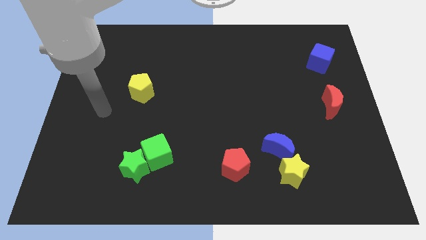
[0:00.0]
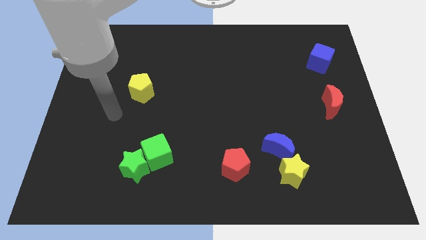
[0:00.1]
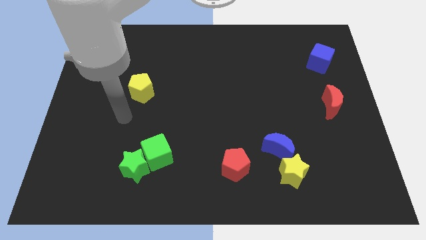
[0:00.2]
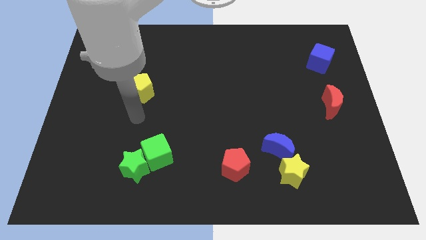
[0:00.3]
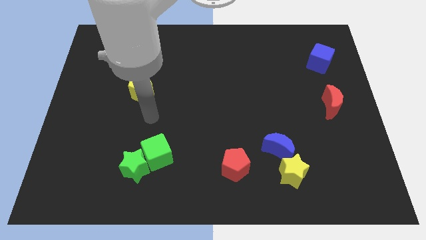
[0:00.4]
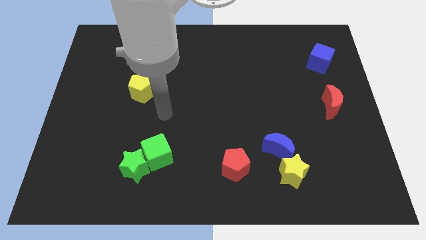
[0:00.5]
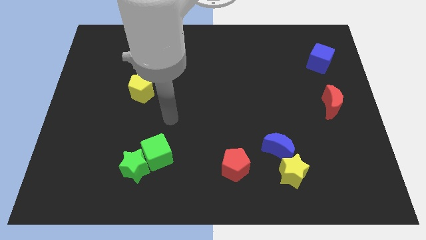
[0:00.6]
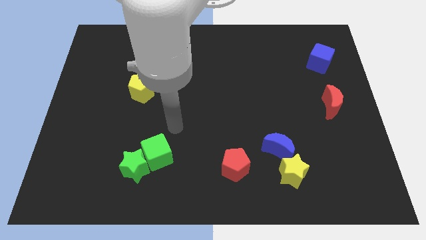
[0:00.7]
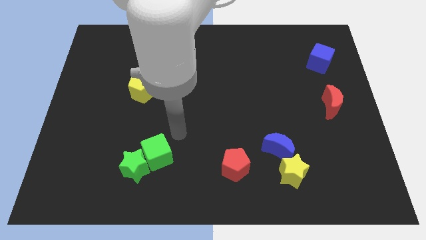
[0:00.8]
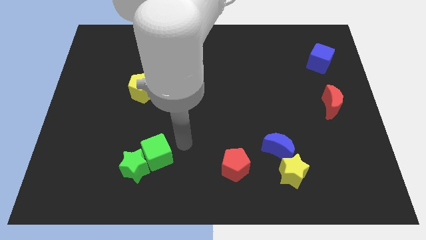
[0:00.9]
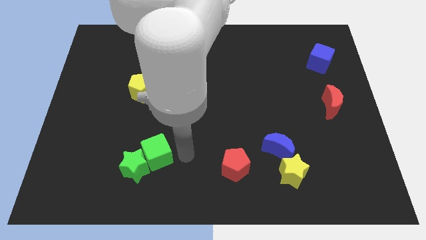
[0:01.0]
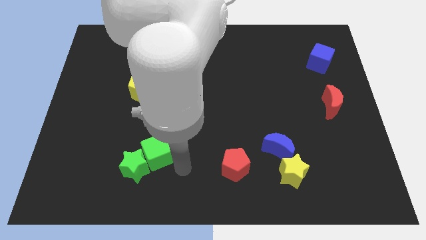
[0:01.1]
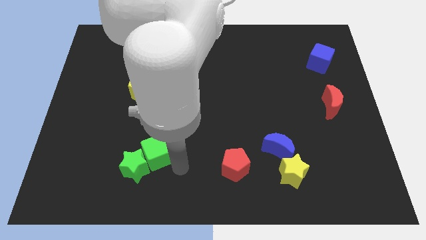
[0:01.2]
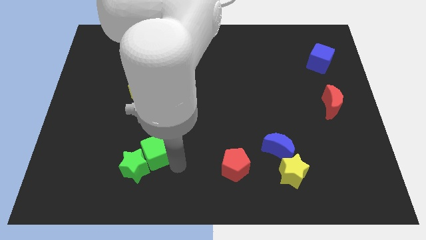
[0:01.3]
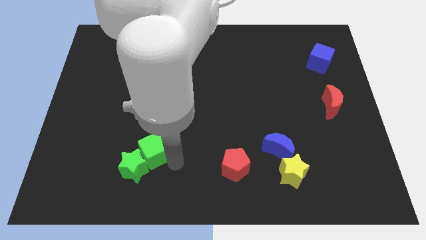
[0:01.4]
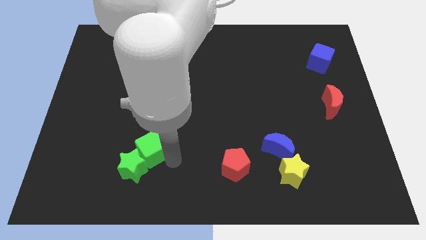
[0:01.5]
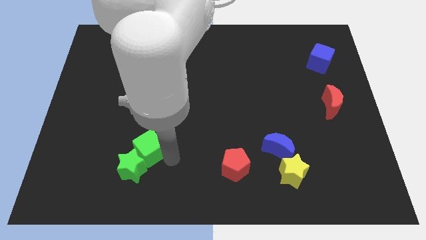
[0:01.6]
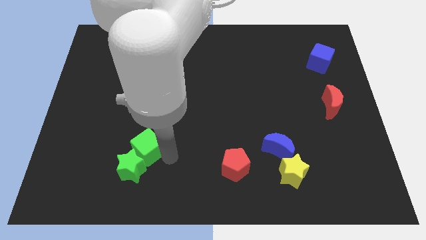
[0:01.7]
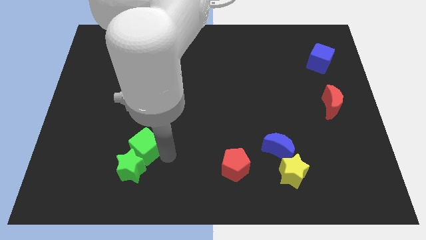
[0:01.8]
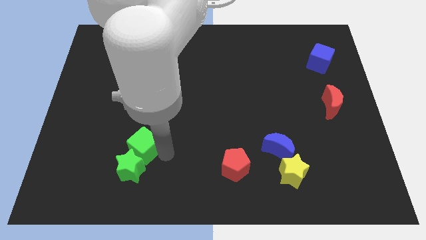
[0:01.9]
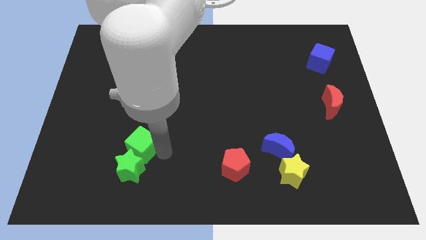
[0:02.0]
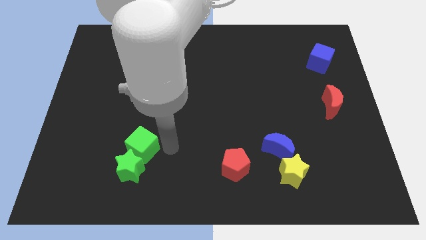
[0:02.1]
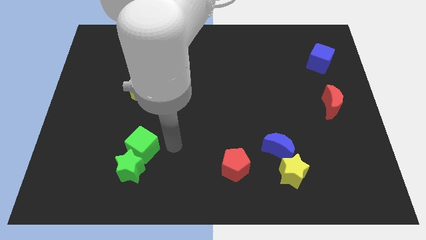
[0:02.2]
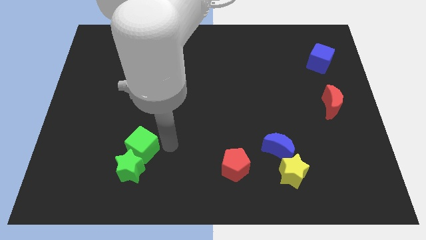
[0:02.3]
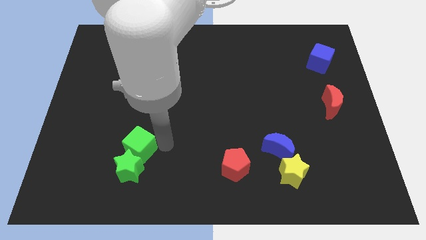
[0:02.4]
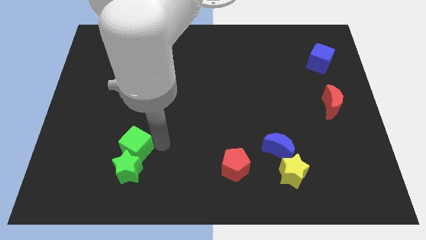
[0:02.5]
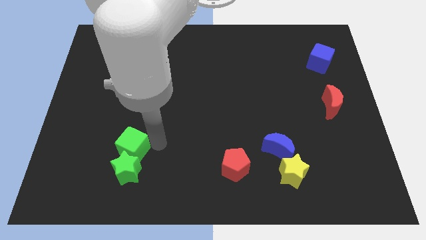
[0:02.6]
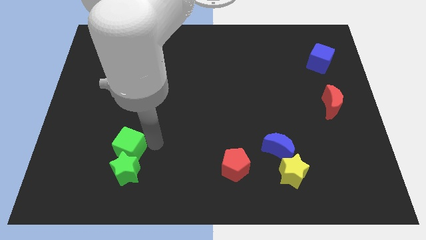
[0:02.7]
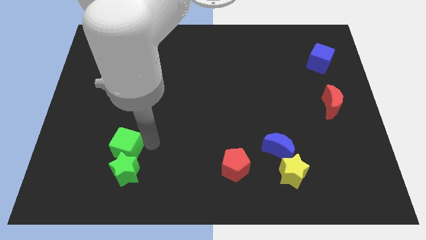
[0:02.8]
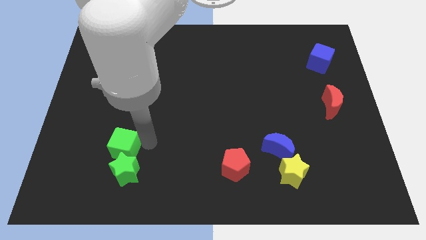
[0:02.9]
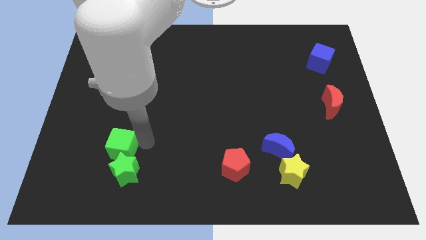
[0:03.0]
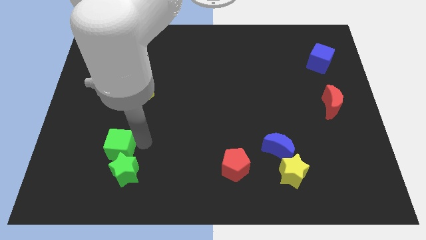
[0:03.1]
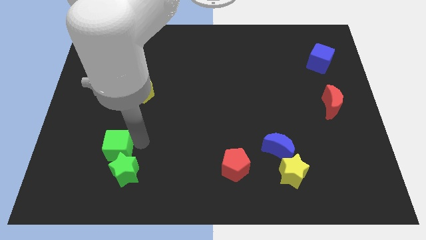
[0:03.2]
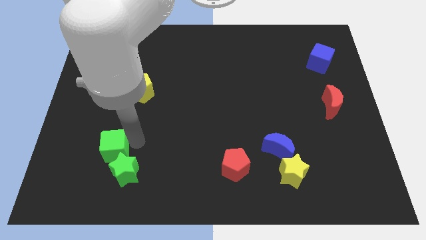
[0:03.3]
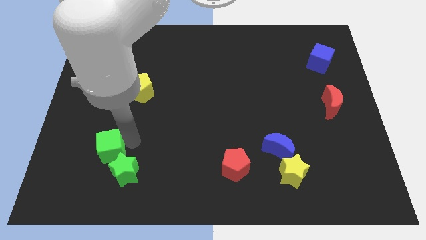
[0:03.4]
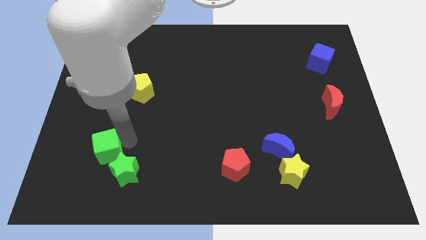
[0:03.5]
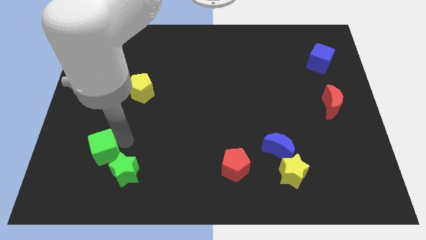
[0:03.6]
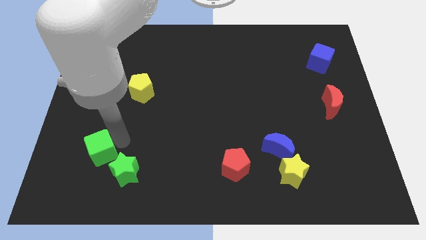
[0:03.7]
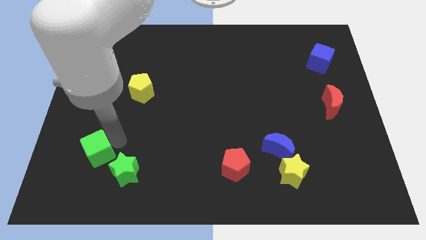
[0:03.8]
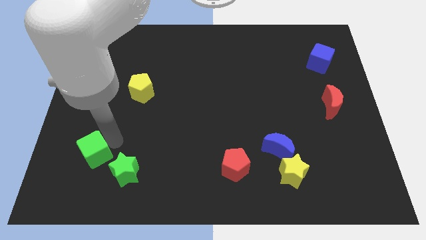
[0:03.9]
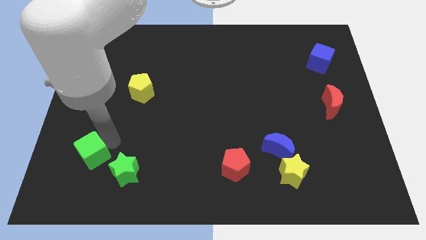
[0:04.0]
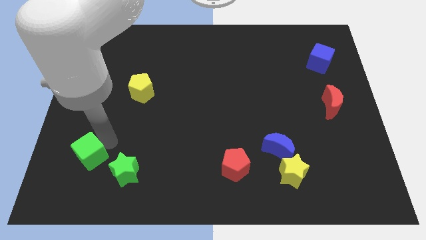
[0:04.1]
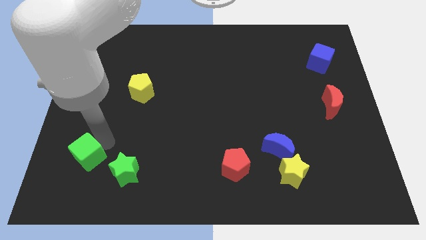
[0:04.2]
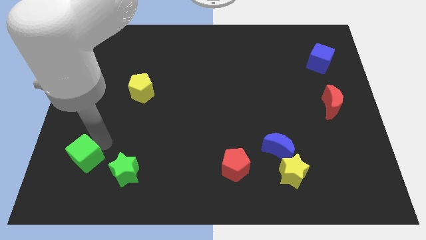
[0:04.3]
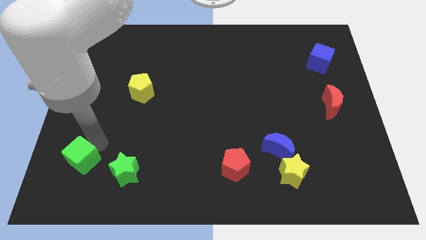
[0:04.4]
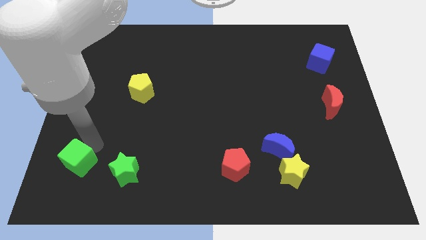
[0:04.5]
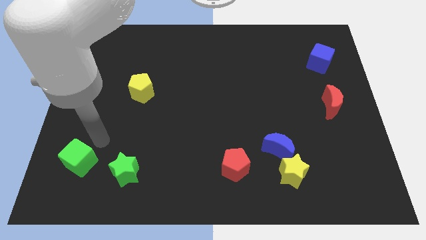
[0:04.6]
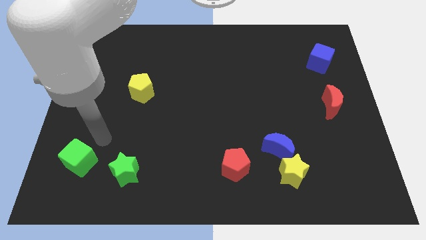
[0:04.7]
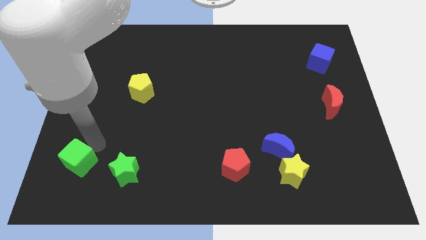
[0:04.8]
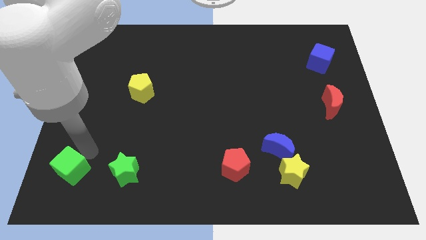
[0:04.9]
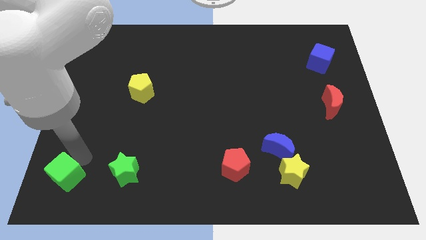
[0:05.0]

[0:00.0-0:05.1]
move the green cube to the bottom left of the board

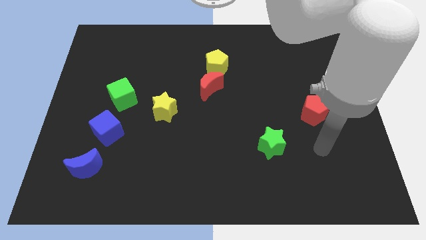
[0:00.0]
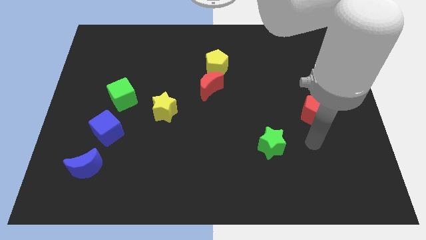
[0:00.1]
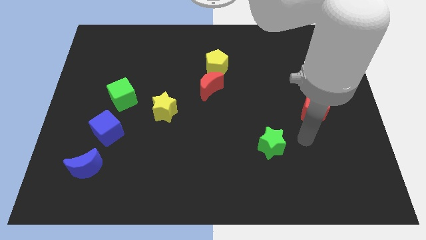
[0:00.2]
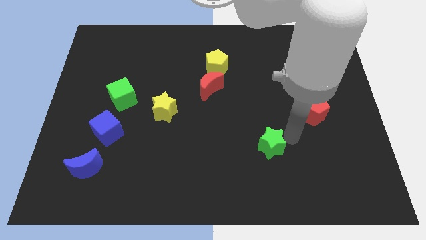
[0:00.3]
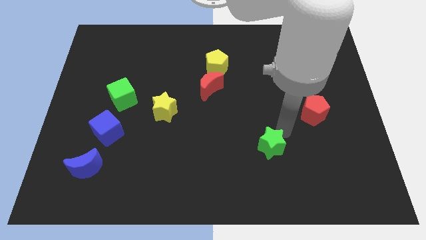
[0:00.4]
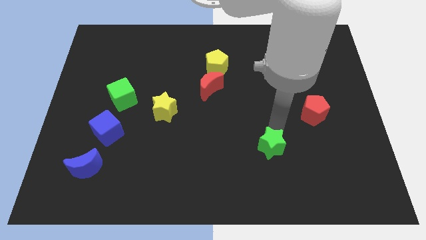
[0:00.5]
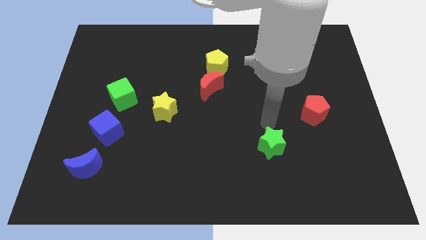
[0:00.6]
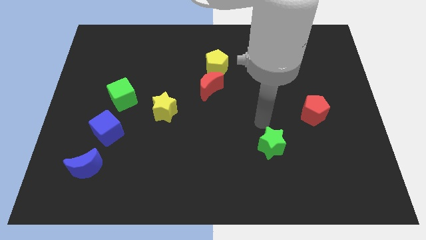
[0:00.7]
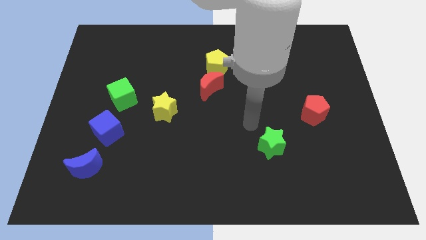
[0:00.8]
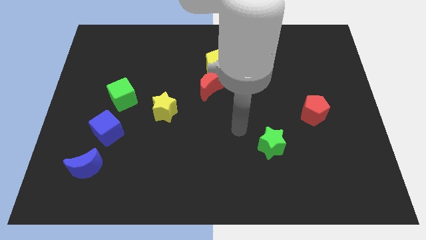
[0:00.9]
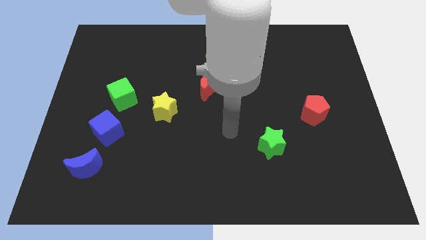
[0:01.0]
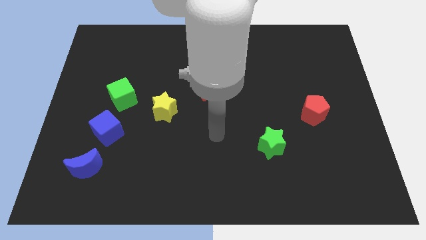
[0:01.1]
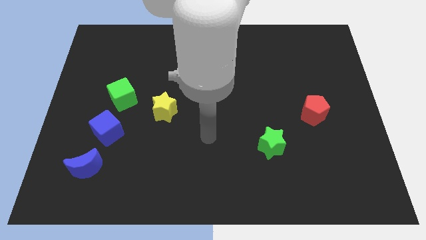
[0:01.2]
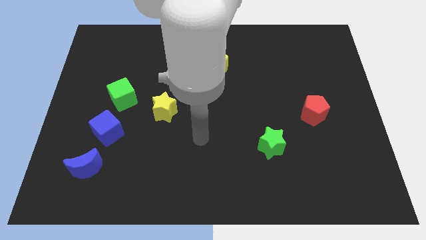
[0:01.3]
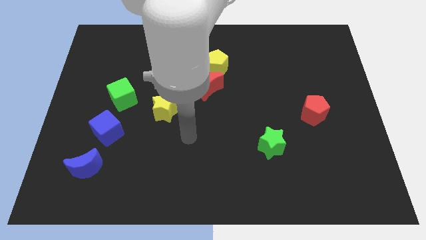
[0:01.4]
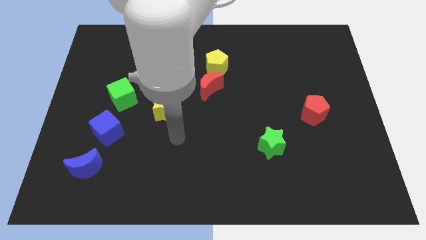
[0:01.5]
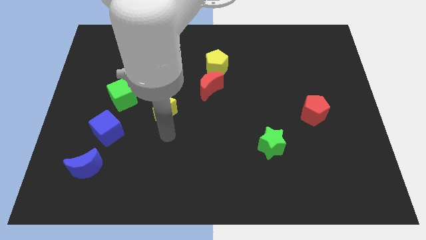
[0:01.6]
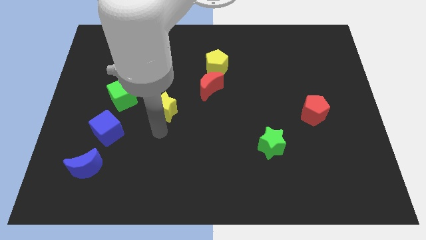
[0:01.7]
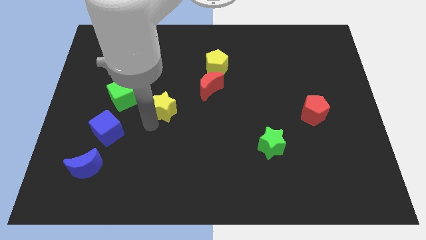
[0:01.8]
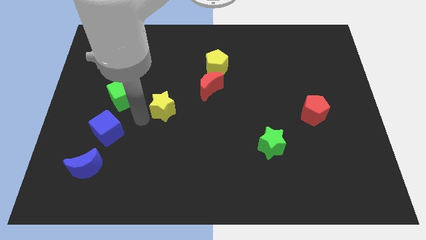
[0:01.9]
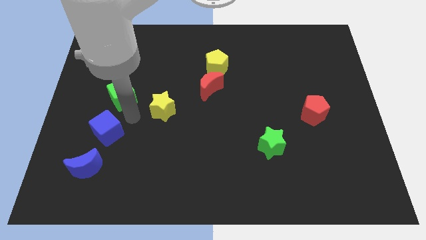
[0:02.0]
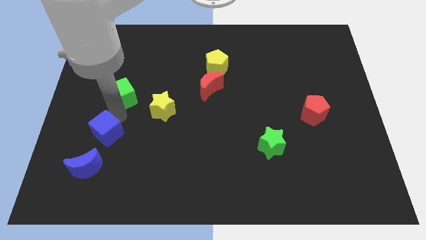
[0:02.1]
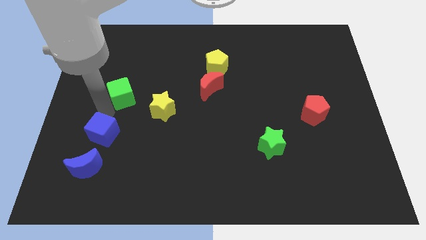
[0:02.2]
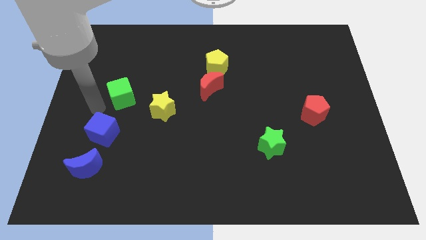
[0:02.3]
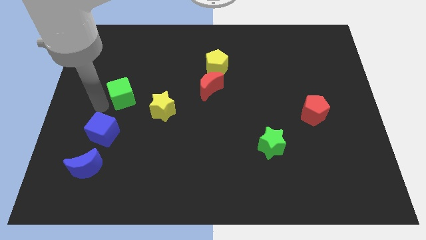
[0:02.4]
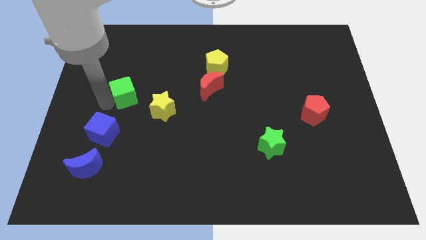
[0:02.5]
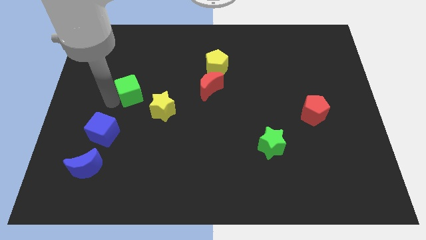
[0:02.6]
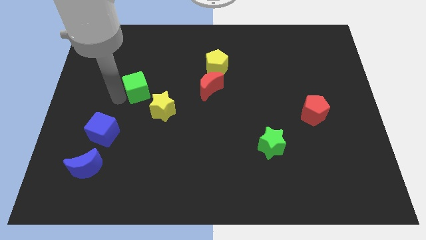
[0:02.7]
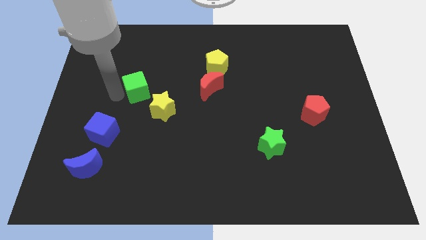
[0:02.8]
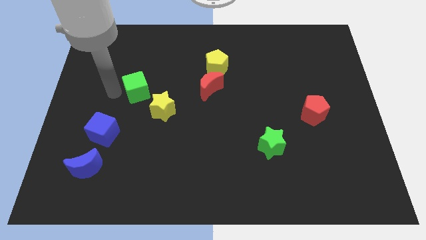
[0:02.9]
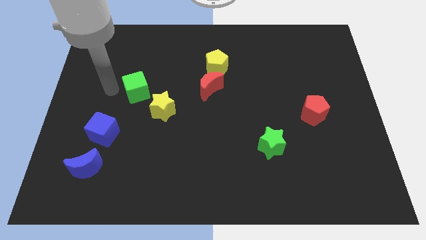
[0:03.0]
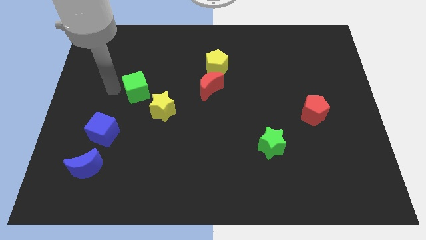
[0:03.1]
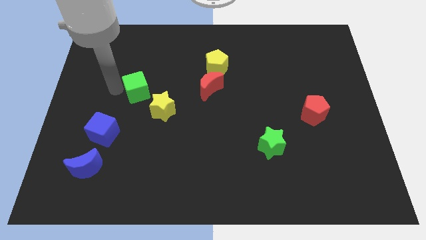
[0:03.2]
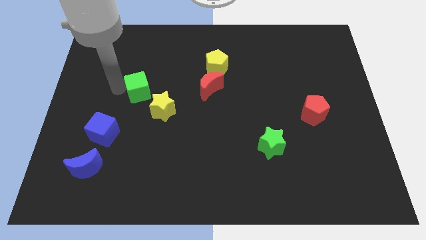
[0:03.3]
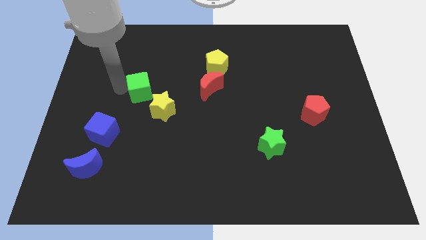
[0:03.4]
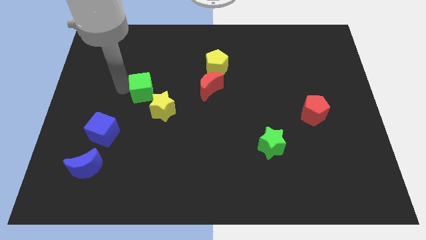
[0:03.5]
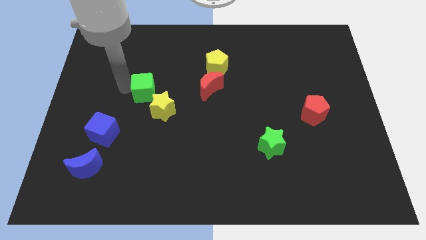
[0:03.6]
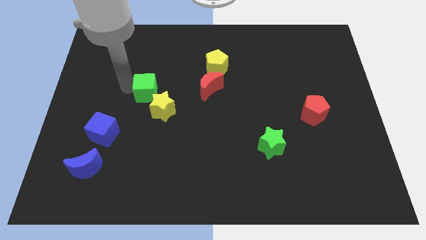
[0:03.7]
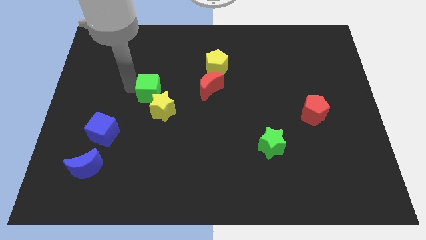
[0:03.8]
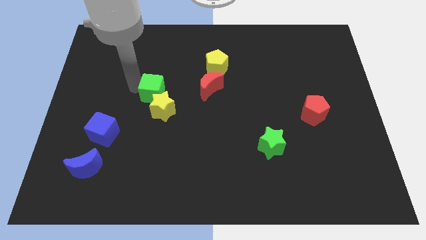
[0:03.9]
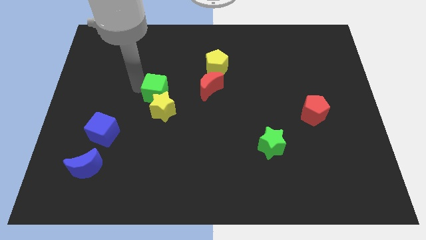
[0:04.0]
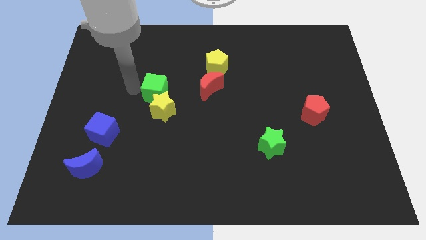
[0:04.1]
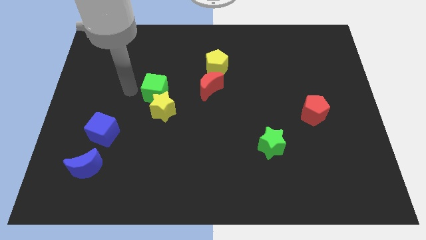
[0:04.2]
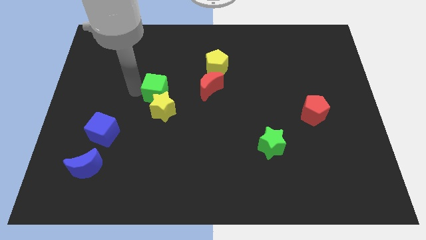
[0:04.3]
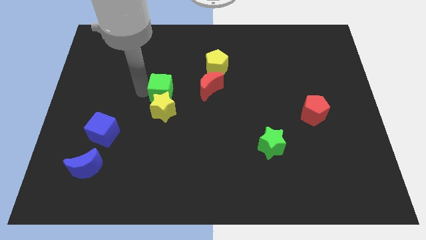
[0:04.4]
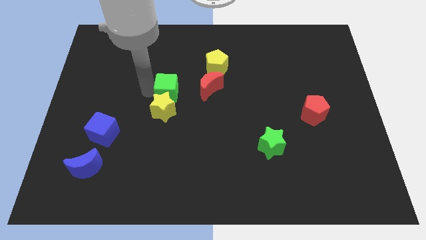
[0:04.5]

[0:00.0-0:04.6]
move the green cube to the center
